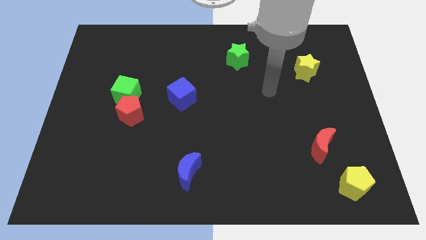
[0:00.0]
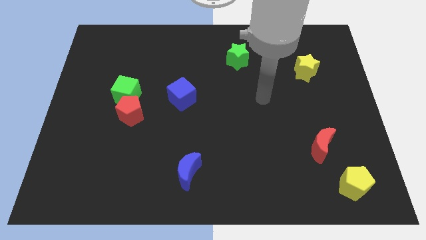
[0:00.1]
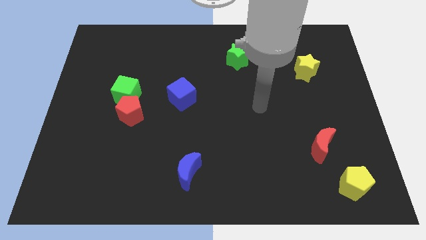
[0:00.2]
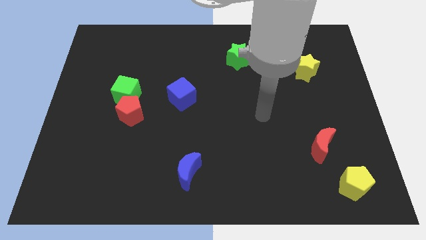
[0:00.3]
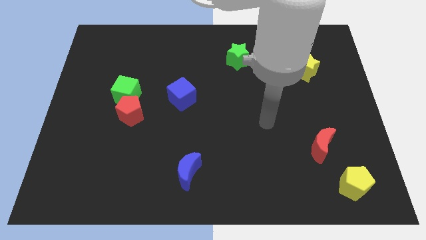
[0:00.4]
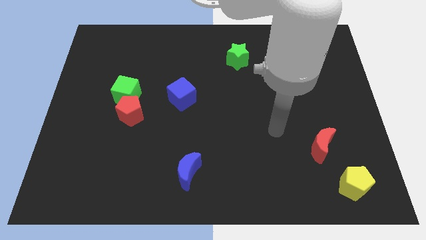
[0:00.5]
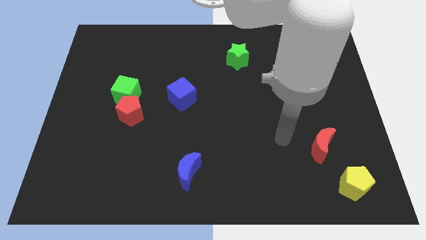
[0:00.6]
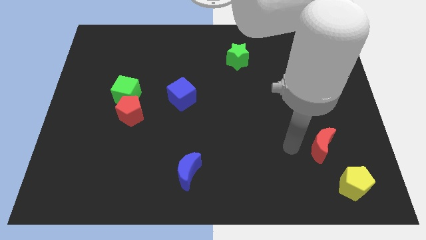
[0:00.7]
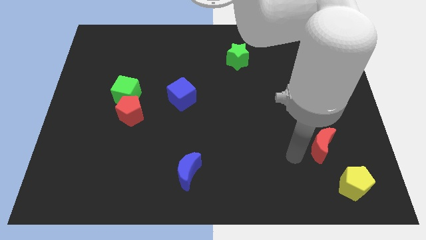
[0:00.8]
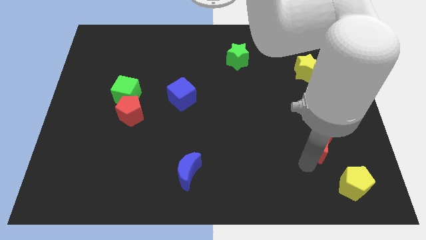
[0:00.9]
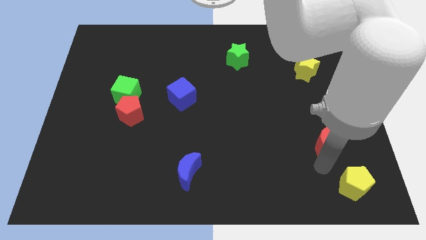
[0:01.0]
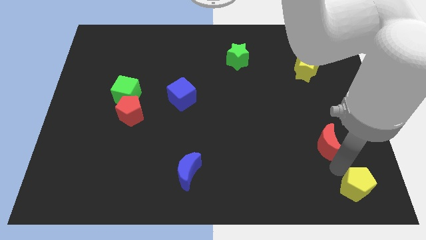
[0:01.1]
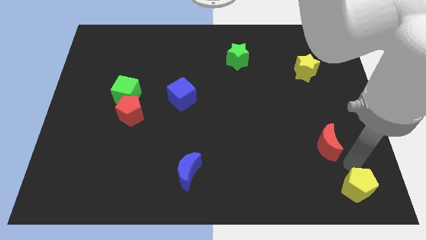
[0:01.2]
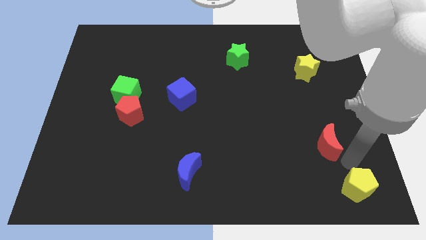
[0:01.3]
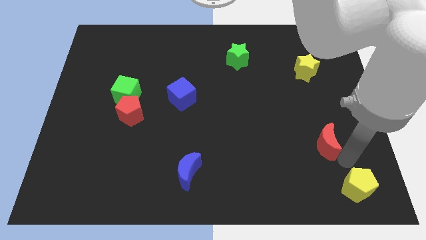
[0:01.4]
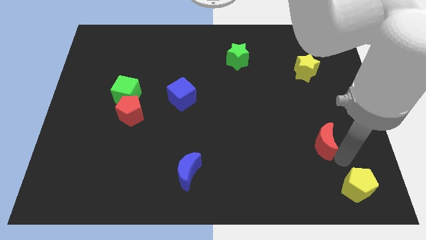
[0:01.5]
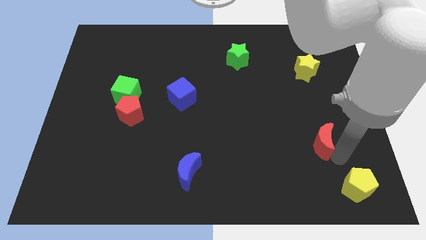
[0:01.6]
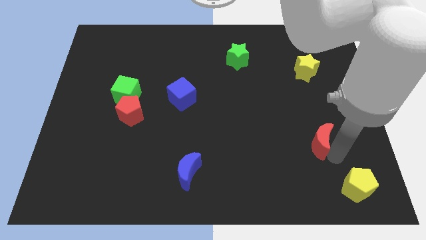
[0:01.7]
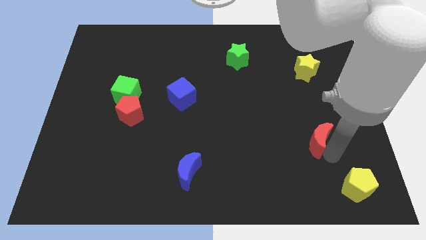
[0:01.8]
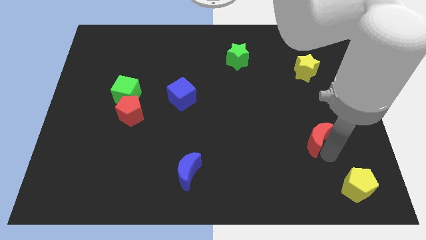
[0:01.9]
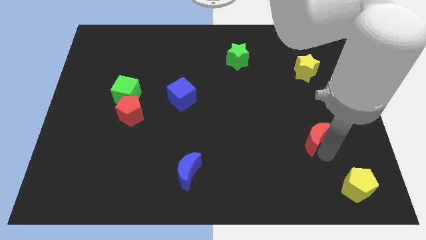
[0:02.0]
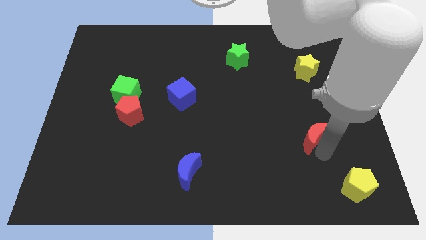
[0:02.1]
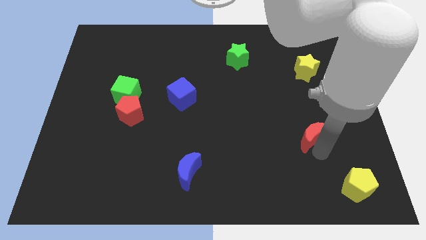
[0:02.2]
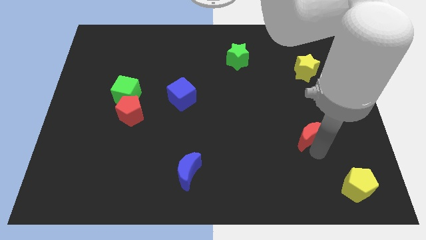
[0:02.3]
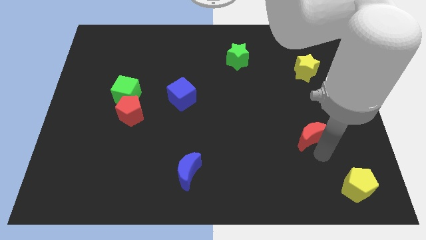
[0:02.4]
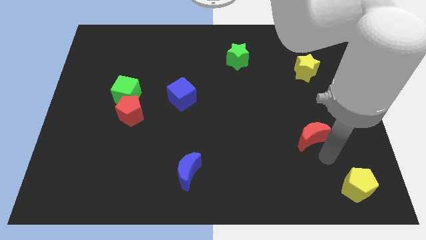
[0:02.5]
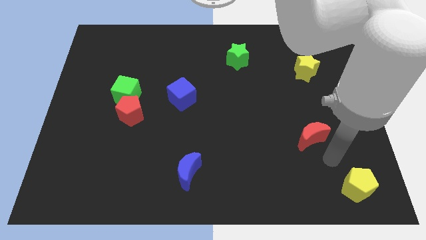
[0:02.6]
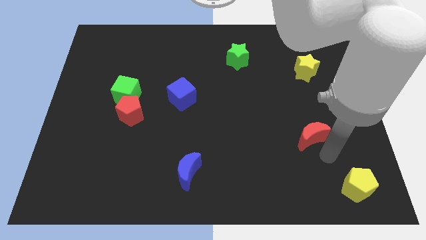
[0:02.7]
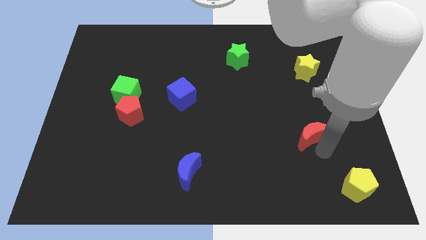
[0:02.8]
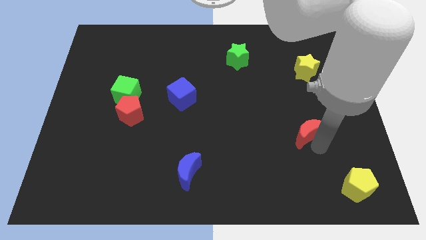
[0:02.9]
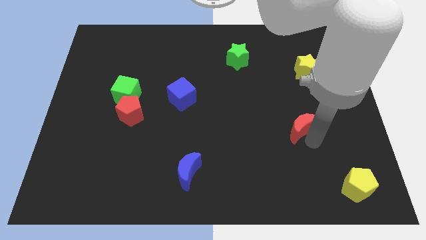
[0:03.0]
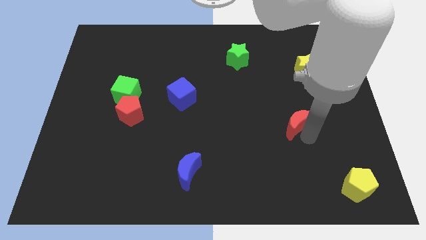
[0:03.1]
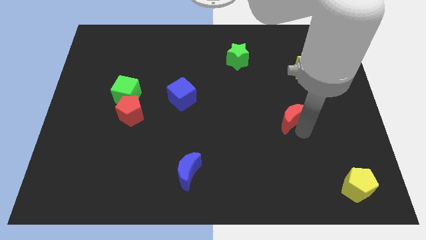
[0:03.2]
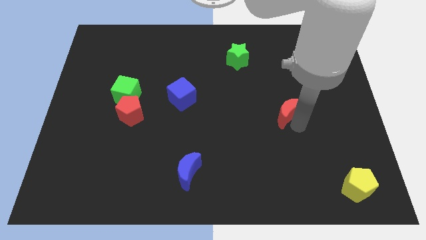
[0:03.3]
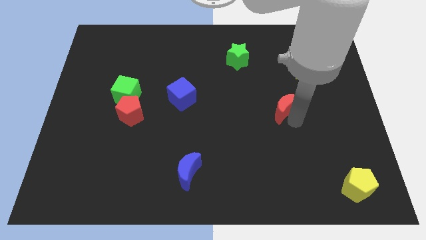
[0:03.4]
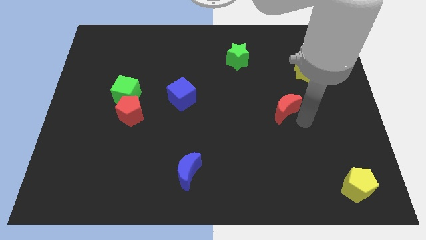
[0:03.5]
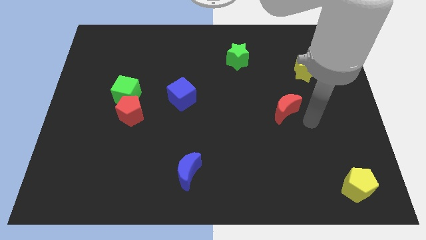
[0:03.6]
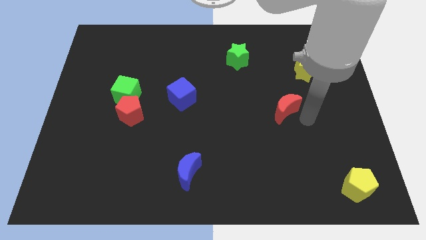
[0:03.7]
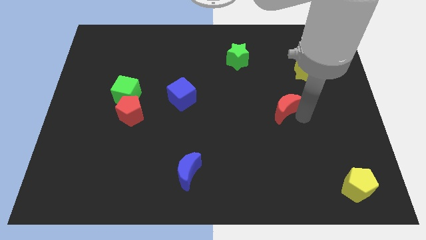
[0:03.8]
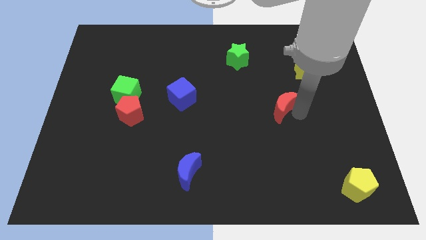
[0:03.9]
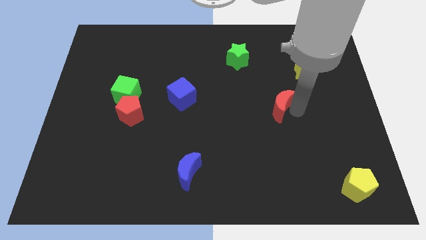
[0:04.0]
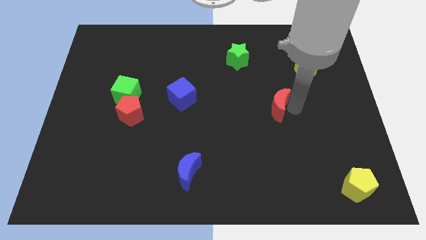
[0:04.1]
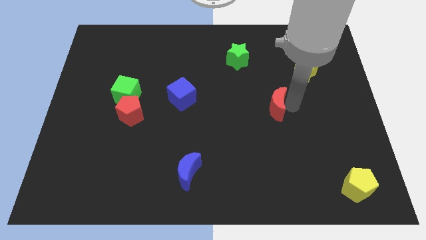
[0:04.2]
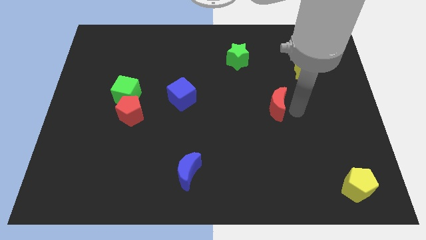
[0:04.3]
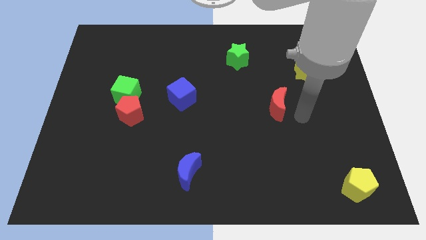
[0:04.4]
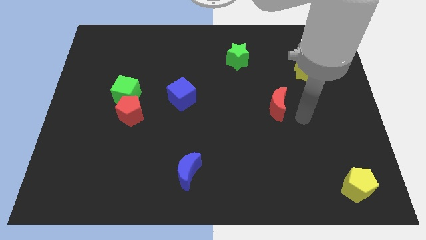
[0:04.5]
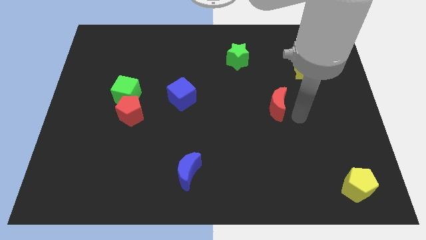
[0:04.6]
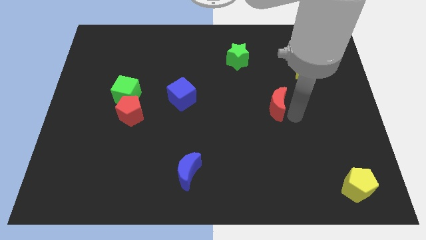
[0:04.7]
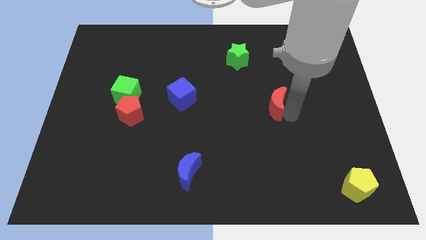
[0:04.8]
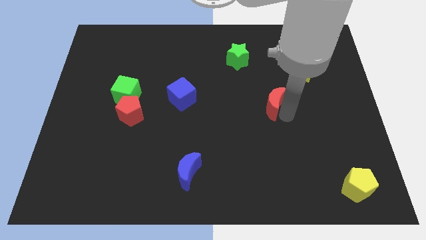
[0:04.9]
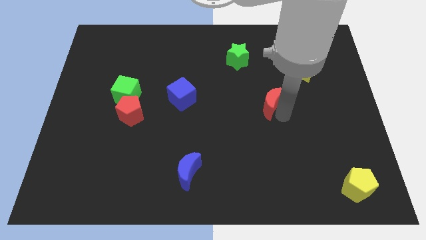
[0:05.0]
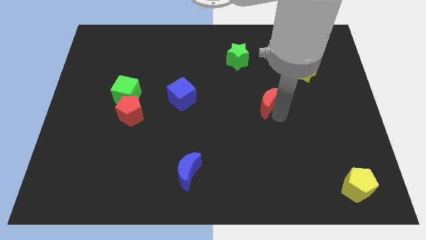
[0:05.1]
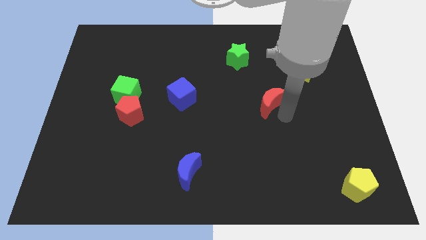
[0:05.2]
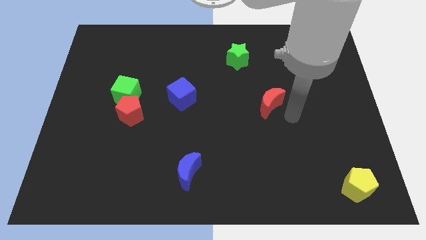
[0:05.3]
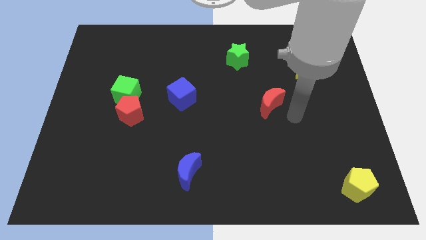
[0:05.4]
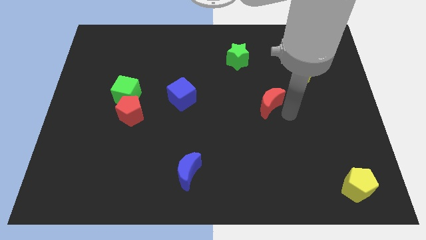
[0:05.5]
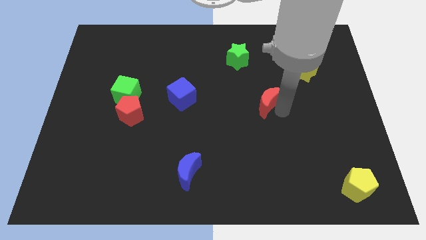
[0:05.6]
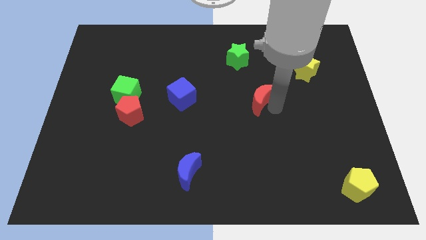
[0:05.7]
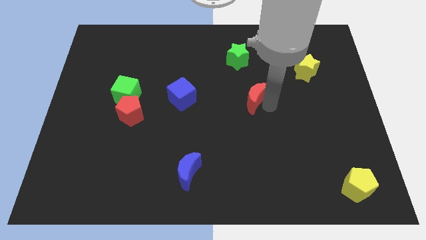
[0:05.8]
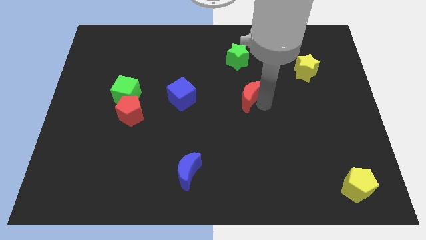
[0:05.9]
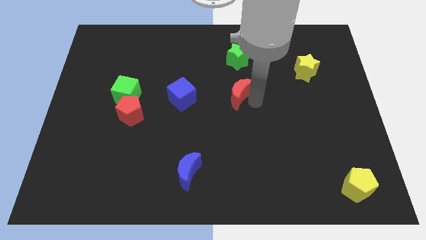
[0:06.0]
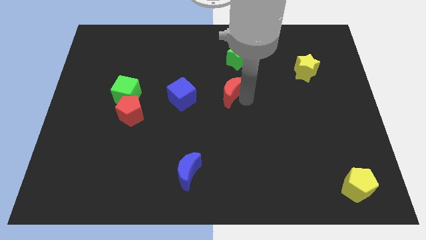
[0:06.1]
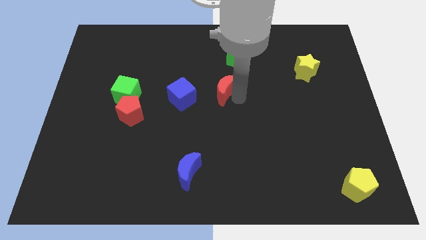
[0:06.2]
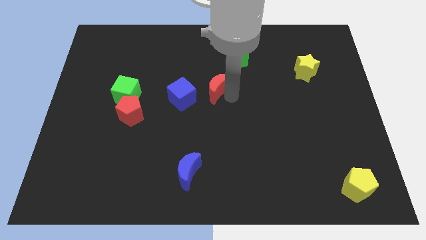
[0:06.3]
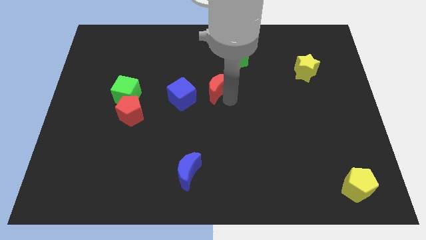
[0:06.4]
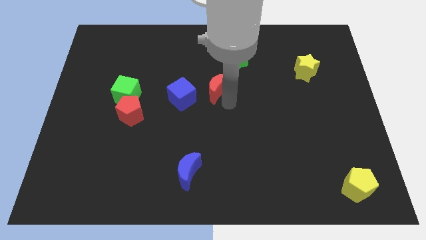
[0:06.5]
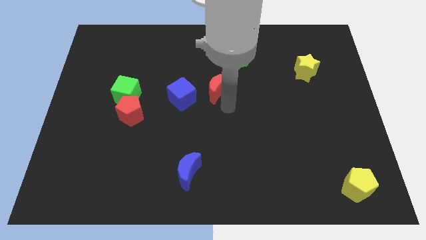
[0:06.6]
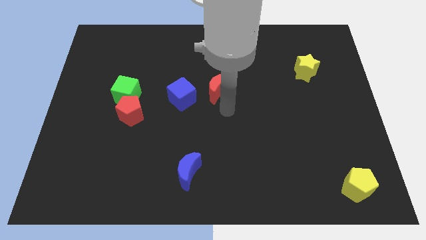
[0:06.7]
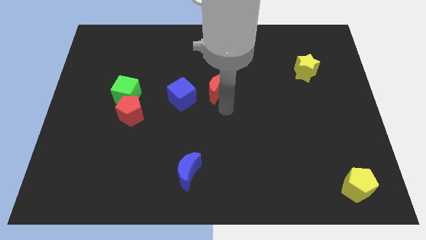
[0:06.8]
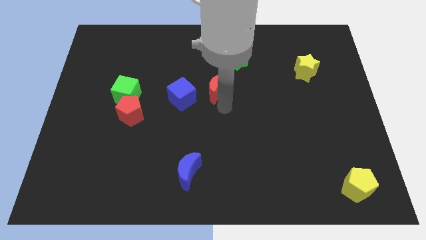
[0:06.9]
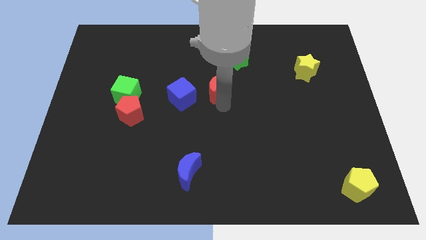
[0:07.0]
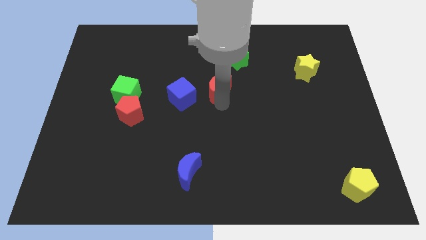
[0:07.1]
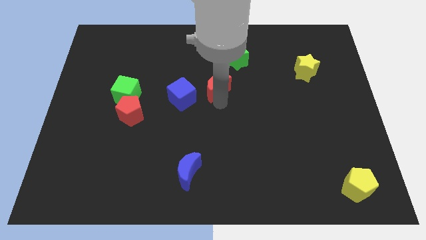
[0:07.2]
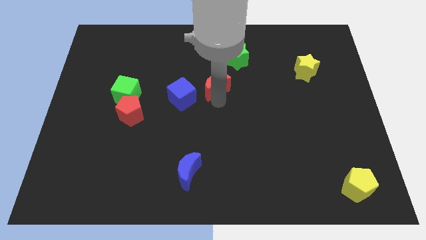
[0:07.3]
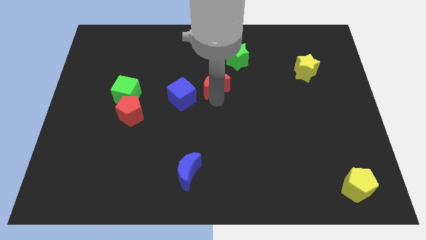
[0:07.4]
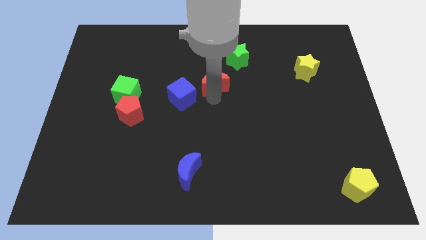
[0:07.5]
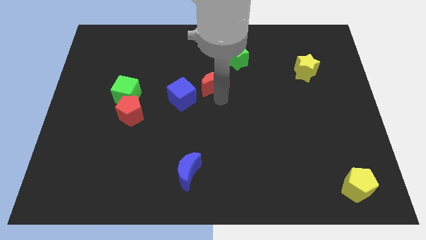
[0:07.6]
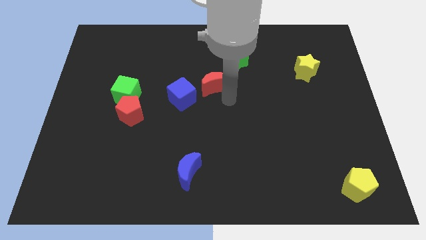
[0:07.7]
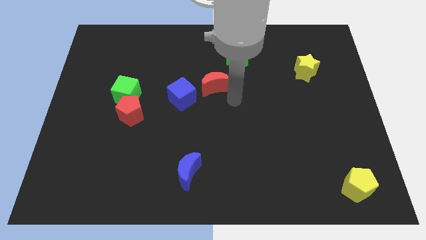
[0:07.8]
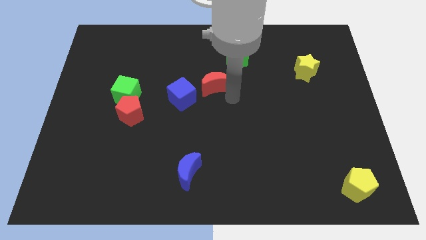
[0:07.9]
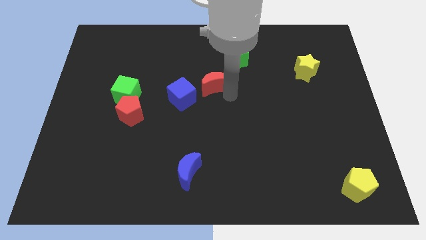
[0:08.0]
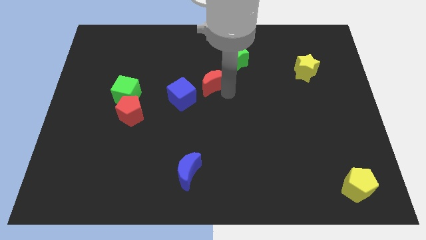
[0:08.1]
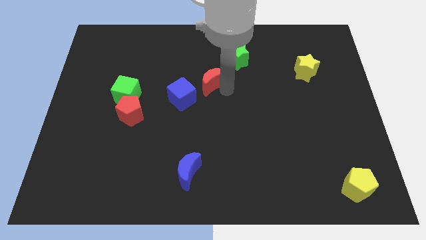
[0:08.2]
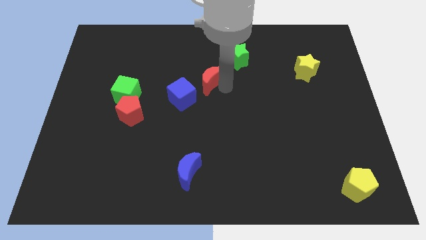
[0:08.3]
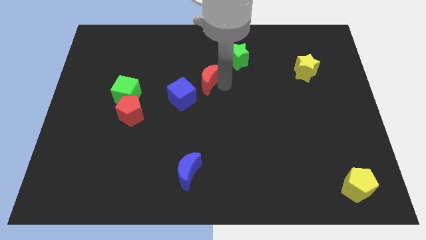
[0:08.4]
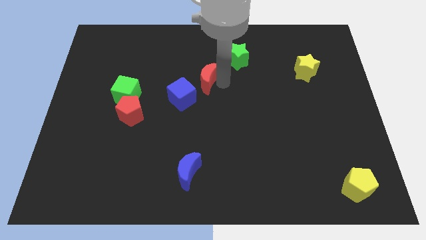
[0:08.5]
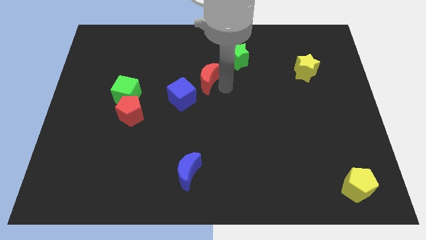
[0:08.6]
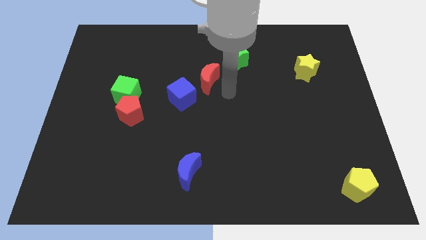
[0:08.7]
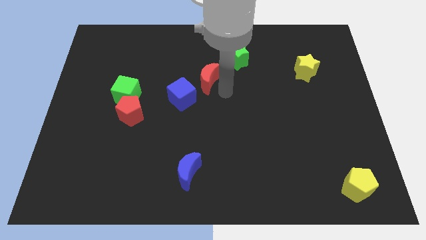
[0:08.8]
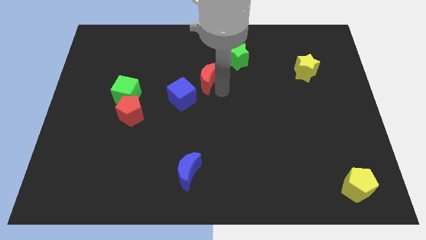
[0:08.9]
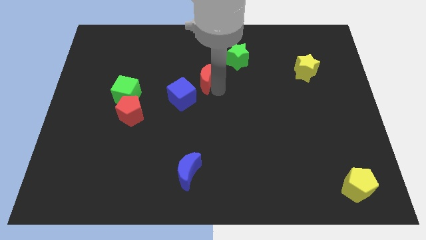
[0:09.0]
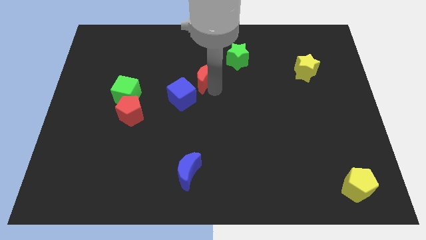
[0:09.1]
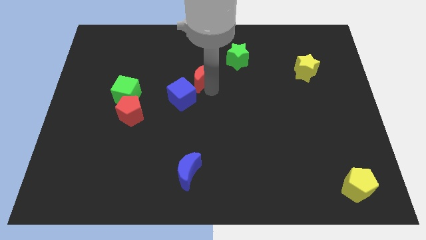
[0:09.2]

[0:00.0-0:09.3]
move the red moon to the top of the blue cube
